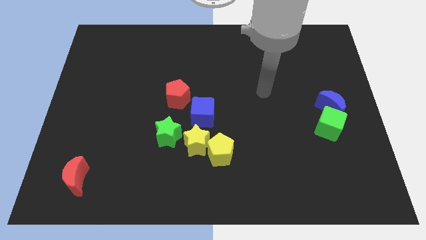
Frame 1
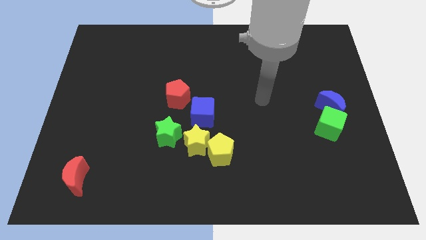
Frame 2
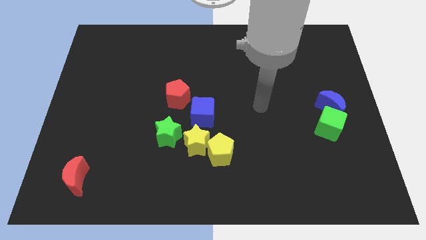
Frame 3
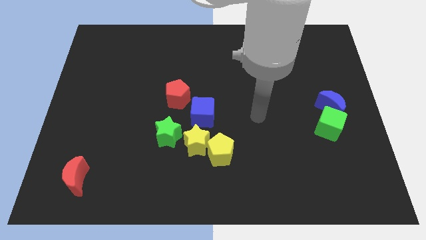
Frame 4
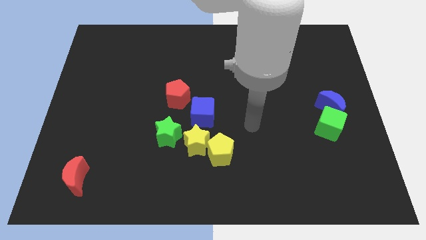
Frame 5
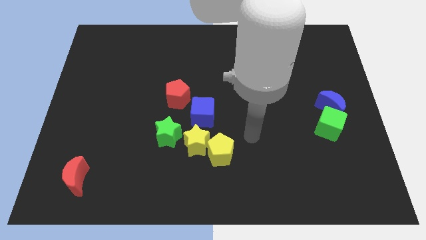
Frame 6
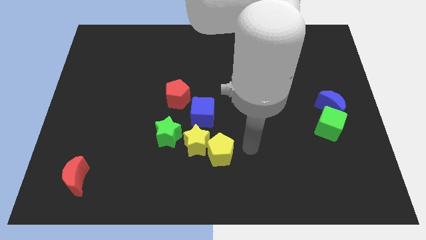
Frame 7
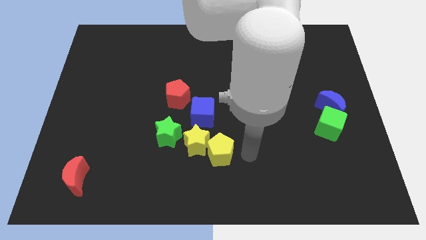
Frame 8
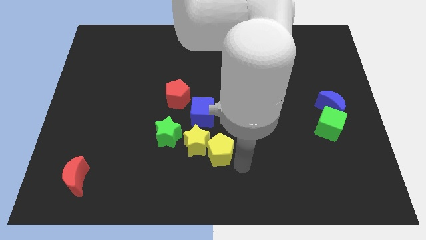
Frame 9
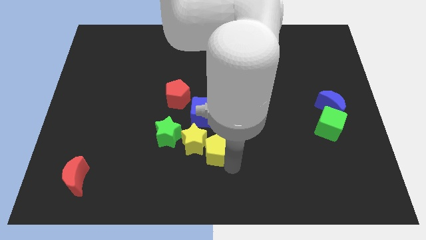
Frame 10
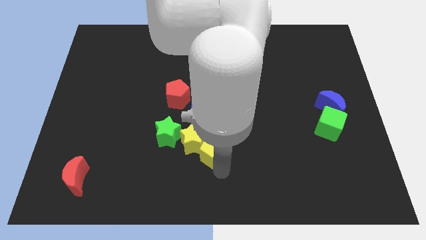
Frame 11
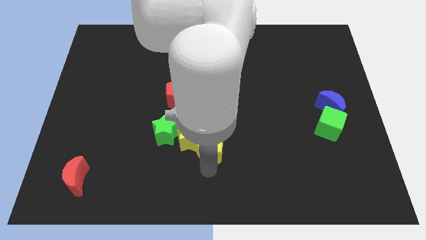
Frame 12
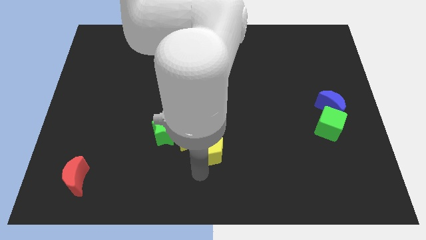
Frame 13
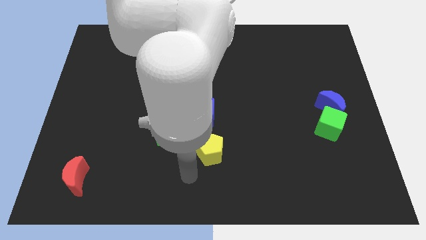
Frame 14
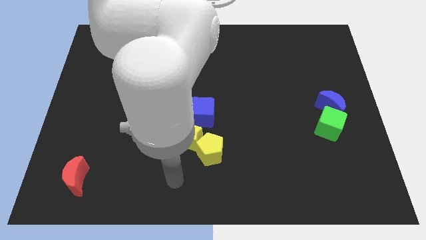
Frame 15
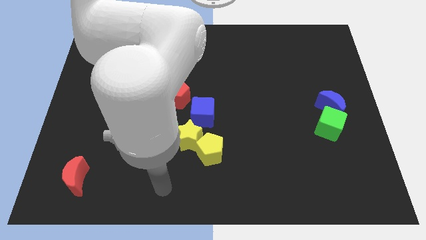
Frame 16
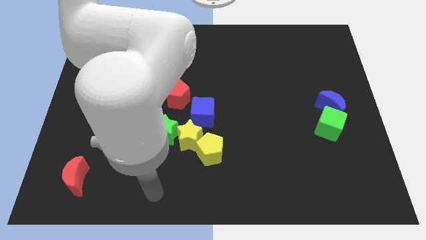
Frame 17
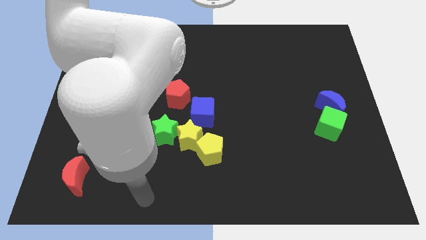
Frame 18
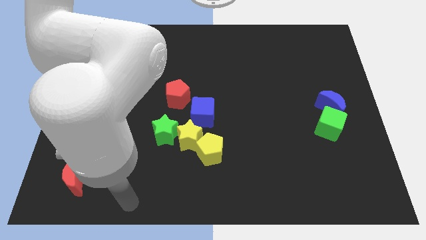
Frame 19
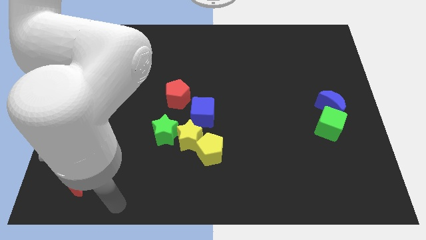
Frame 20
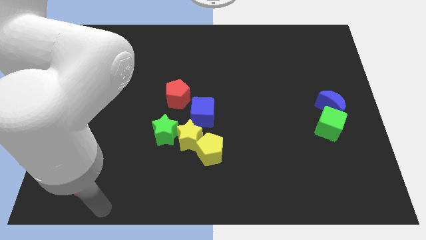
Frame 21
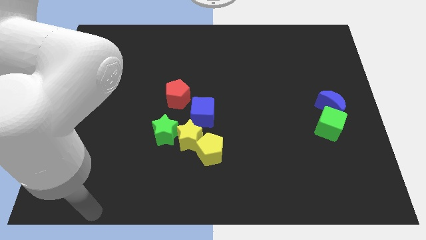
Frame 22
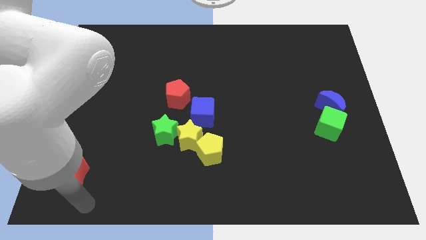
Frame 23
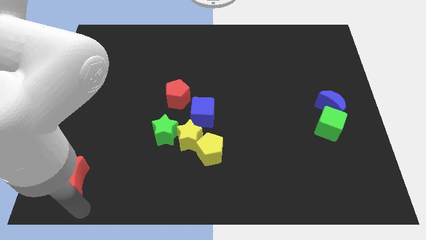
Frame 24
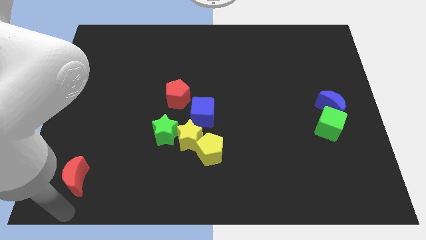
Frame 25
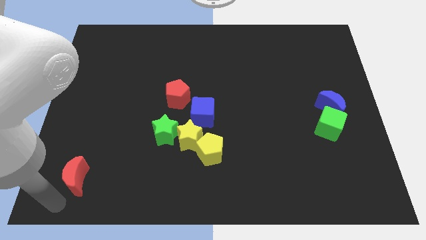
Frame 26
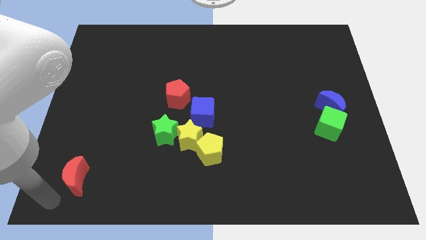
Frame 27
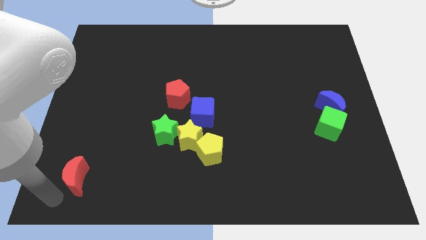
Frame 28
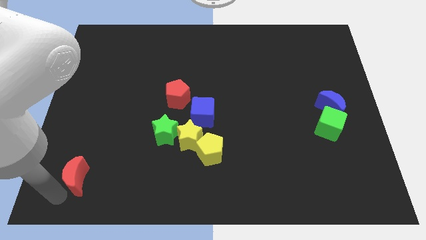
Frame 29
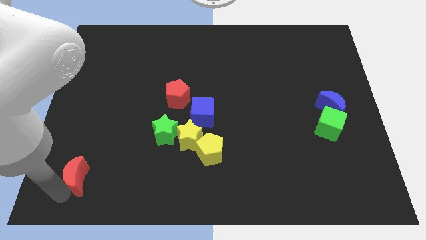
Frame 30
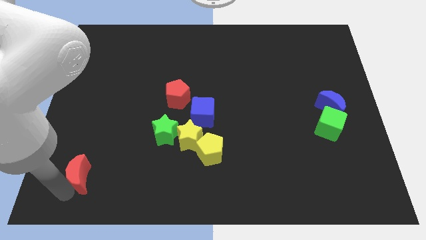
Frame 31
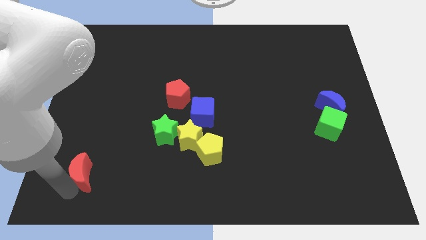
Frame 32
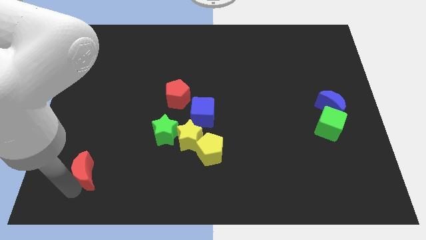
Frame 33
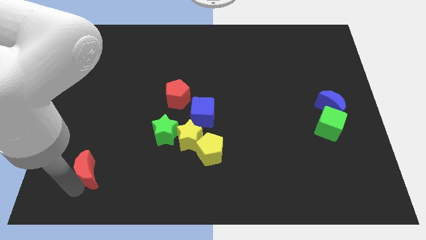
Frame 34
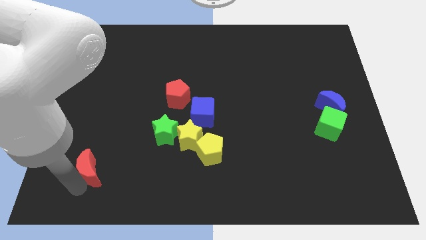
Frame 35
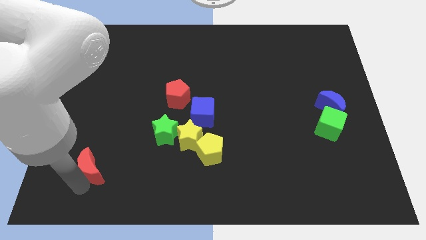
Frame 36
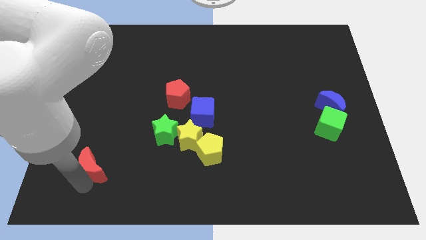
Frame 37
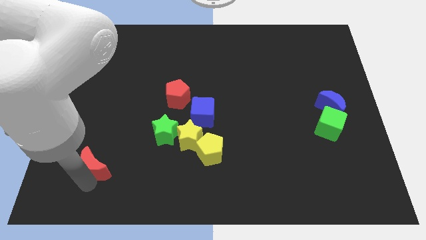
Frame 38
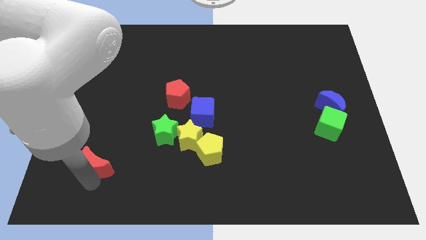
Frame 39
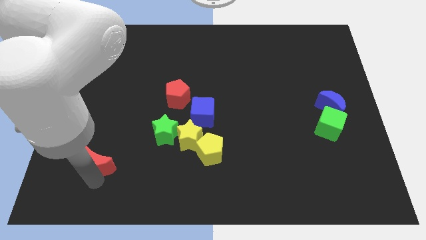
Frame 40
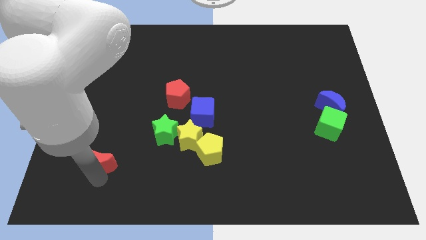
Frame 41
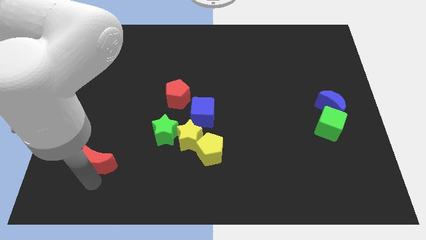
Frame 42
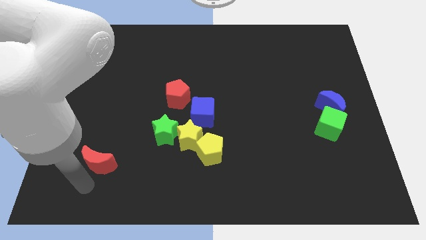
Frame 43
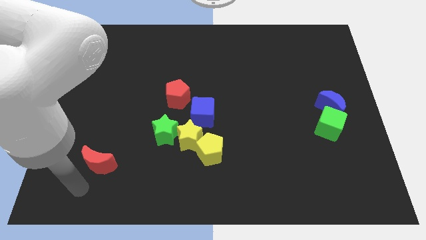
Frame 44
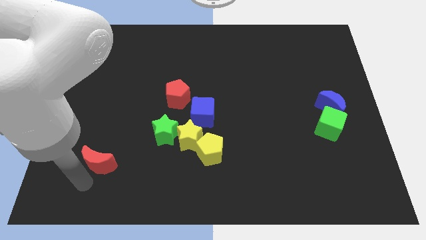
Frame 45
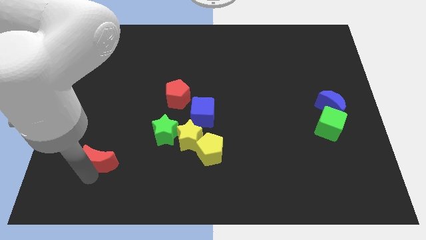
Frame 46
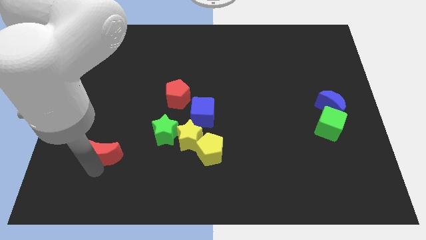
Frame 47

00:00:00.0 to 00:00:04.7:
slide the red moon up and right slightly

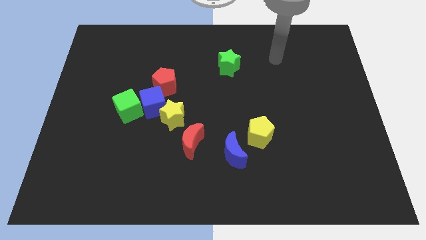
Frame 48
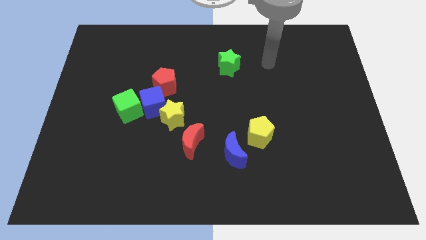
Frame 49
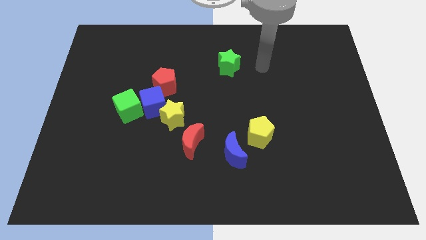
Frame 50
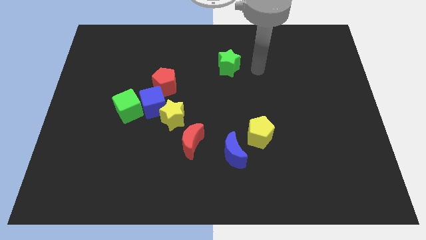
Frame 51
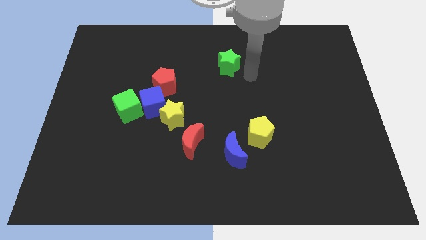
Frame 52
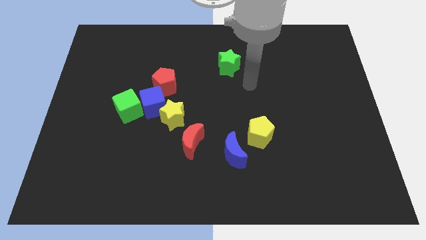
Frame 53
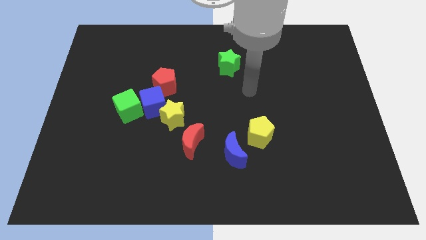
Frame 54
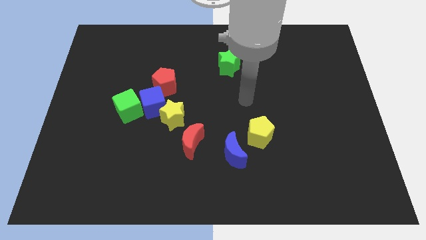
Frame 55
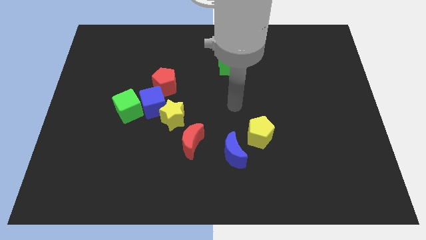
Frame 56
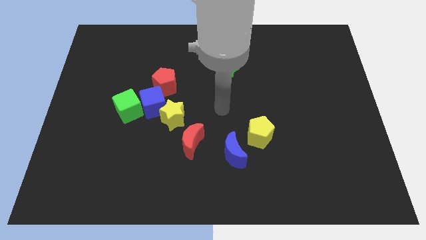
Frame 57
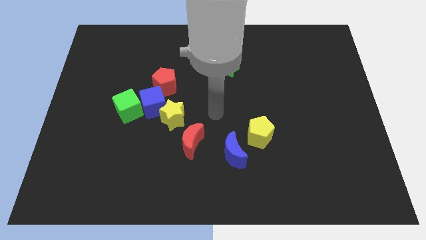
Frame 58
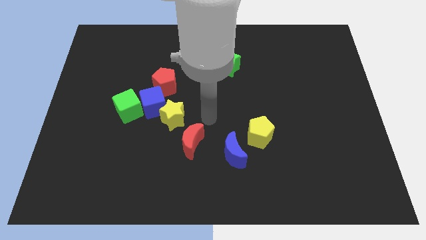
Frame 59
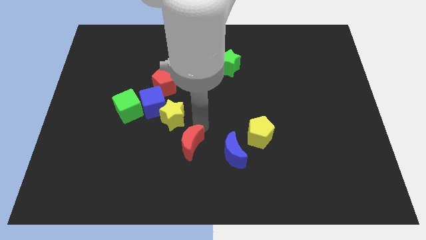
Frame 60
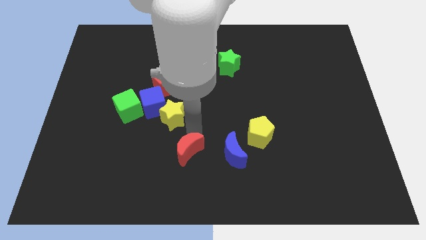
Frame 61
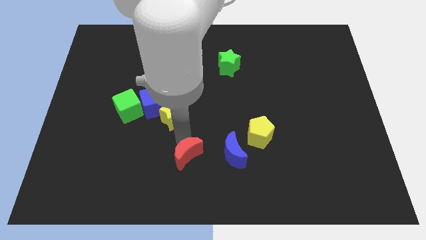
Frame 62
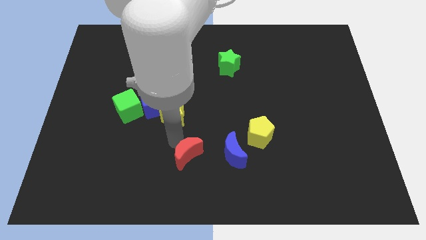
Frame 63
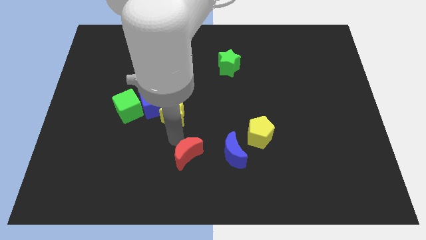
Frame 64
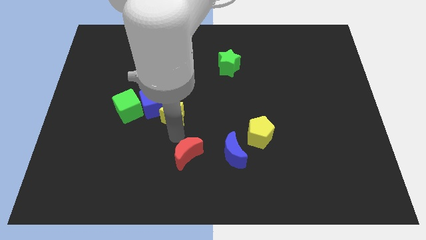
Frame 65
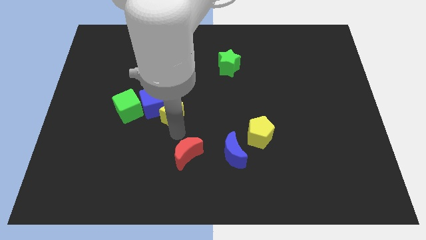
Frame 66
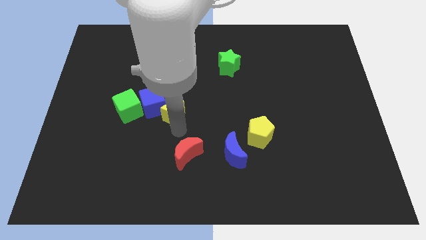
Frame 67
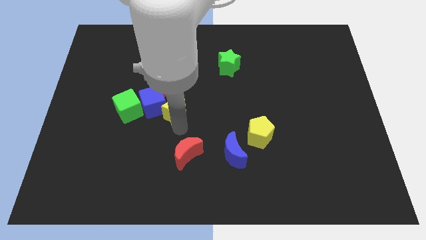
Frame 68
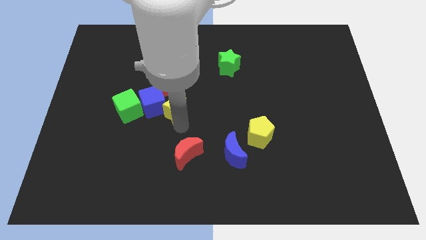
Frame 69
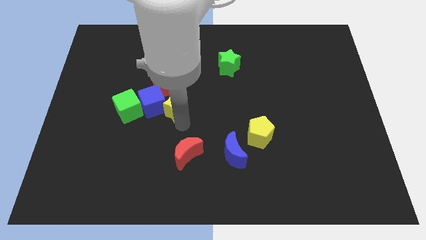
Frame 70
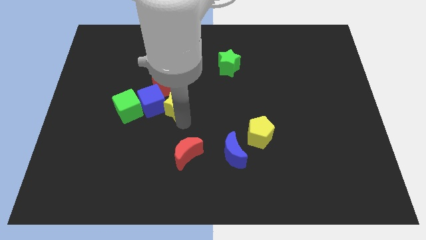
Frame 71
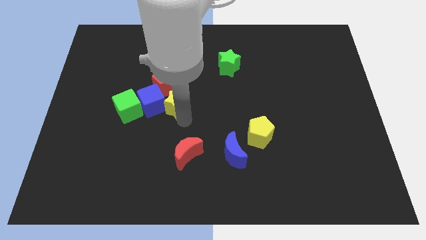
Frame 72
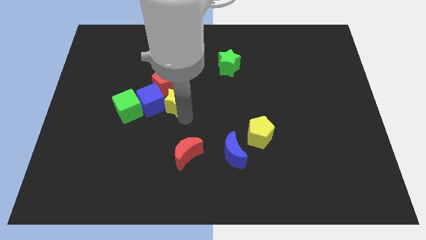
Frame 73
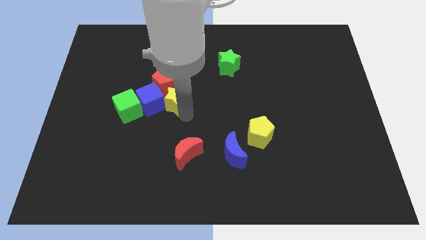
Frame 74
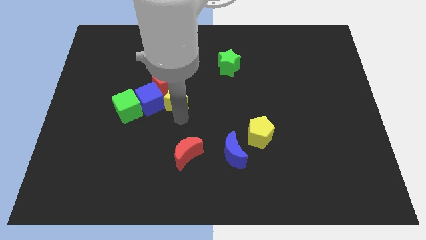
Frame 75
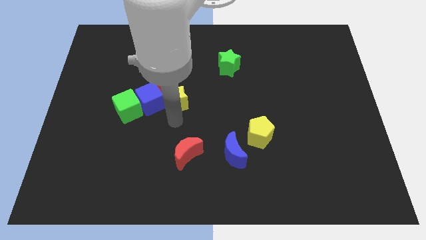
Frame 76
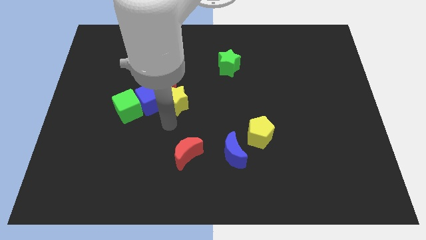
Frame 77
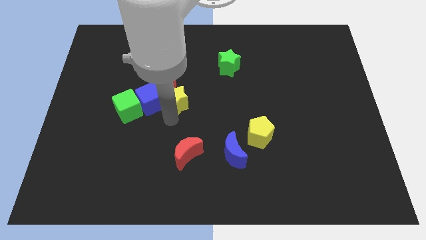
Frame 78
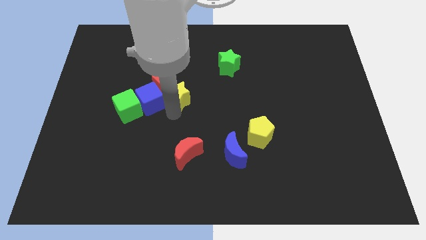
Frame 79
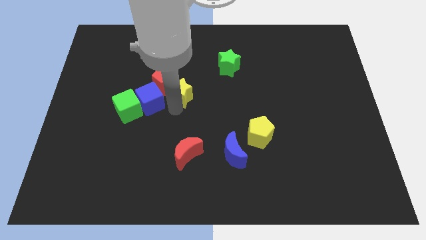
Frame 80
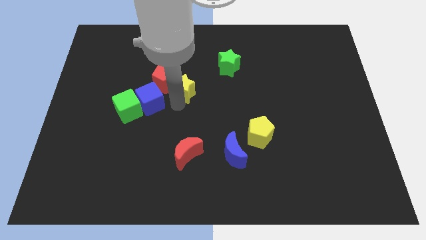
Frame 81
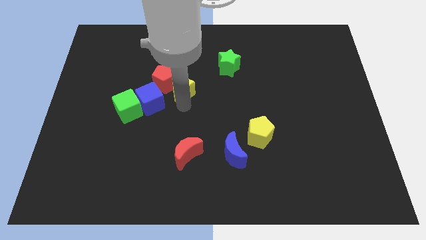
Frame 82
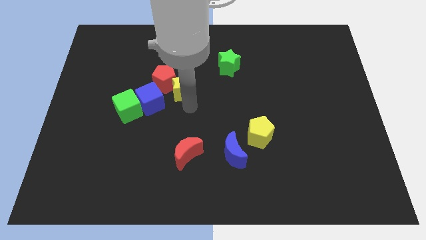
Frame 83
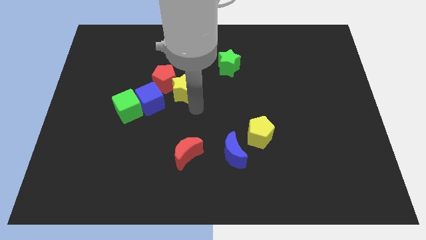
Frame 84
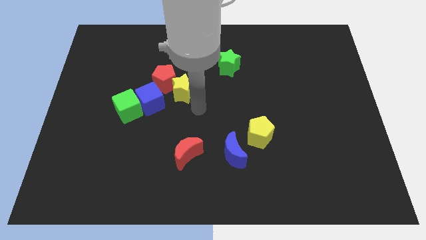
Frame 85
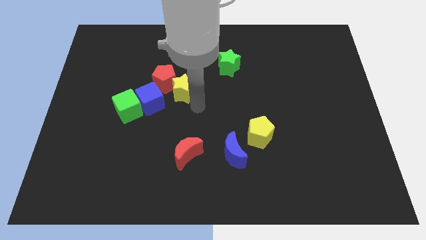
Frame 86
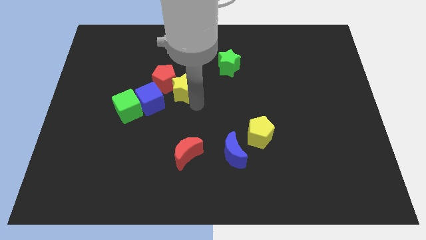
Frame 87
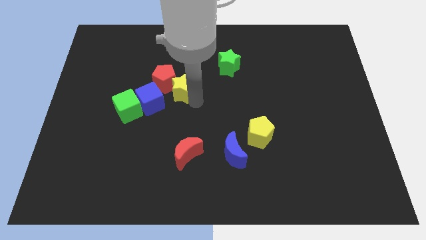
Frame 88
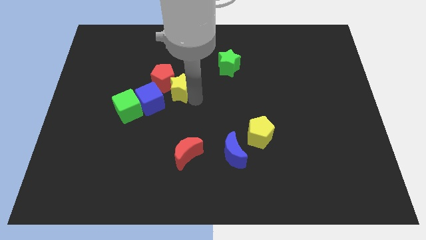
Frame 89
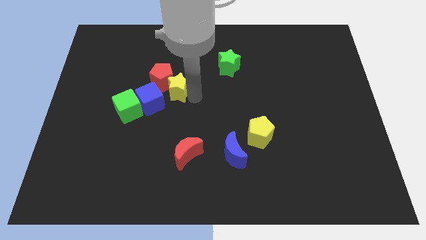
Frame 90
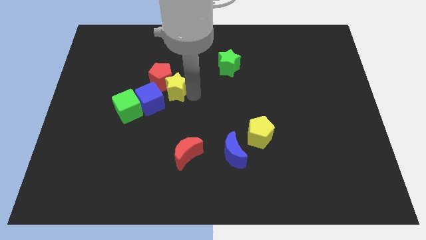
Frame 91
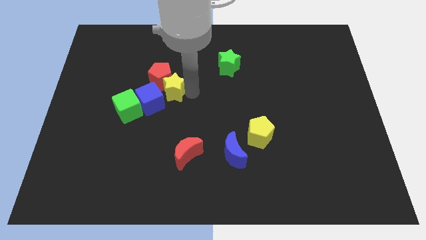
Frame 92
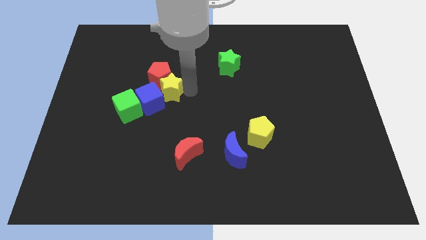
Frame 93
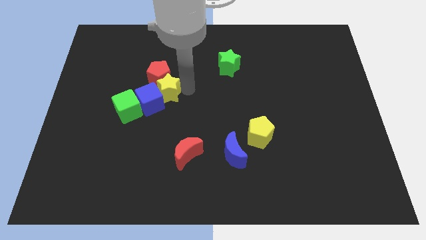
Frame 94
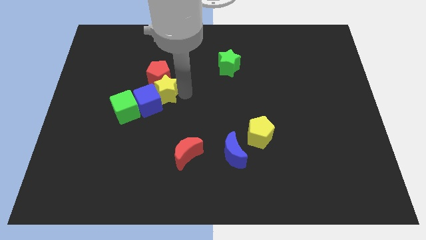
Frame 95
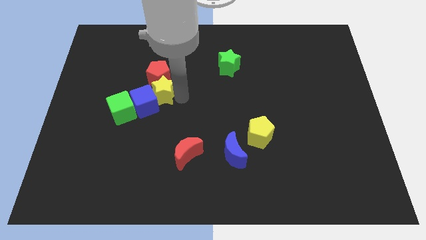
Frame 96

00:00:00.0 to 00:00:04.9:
move the yellow star up and left a bit
